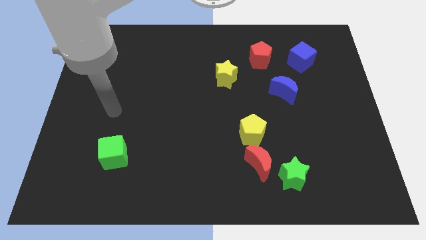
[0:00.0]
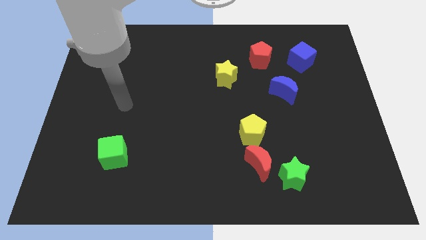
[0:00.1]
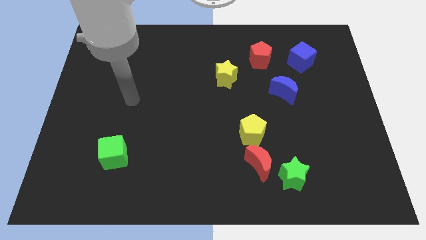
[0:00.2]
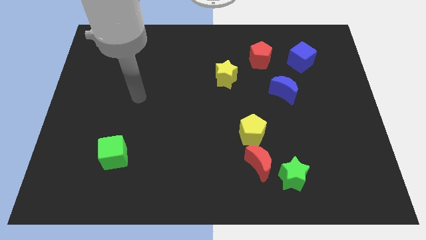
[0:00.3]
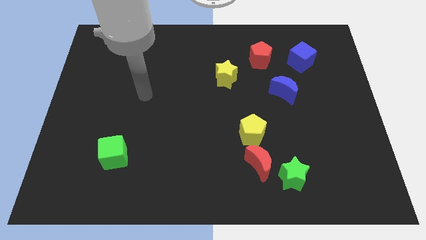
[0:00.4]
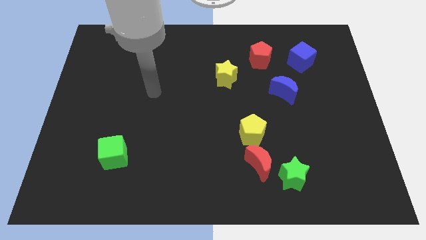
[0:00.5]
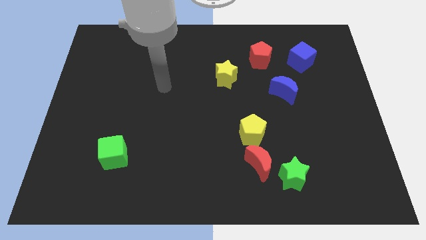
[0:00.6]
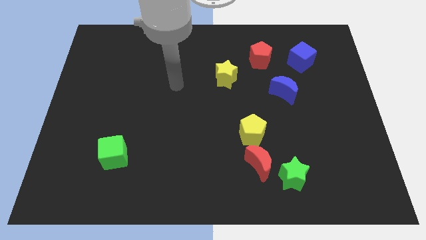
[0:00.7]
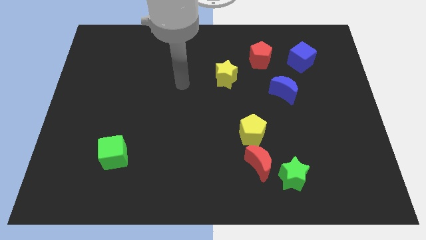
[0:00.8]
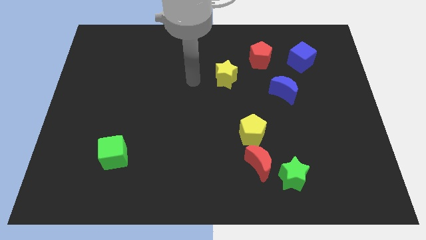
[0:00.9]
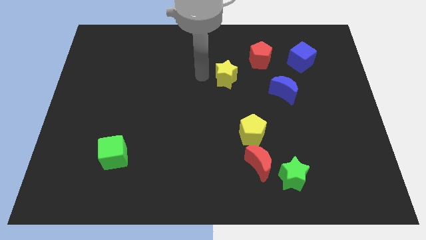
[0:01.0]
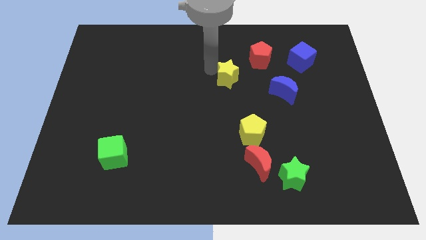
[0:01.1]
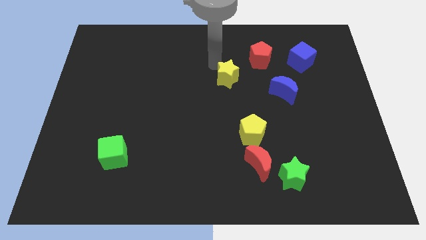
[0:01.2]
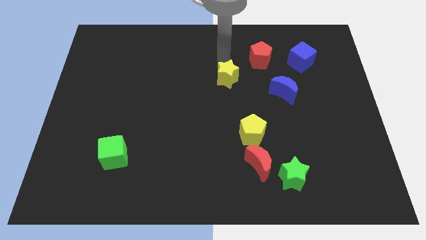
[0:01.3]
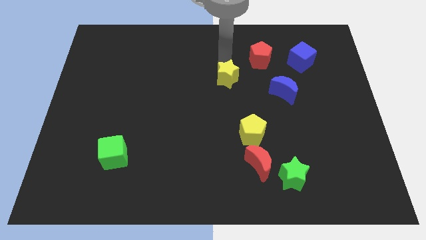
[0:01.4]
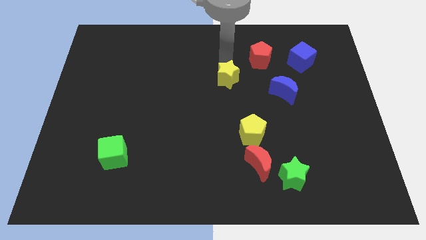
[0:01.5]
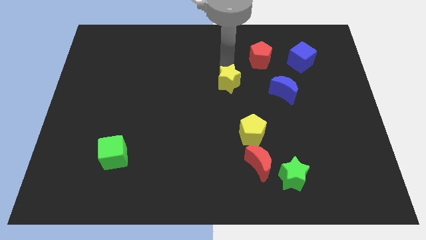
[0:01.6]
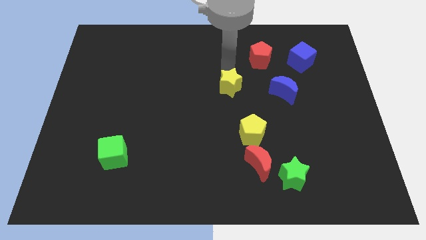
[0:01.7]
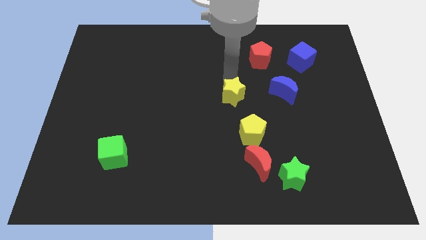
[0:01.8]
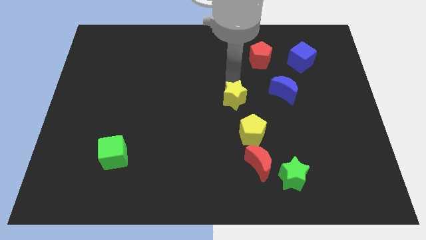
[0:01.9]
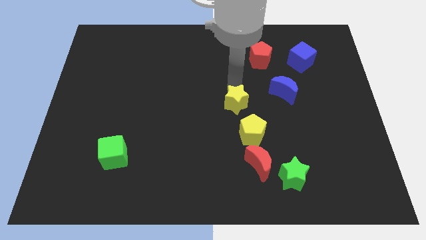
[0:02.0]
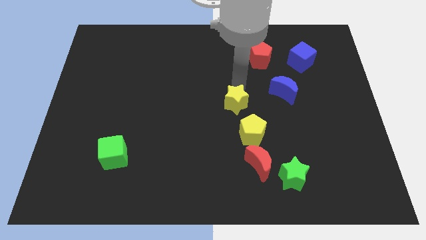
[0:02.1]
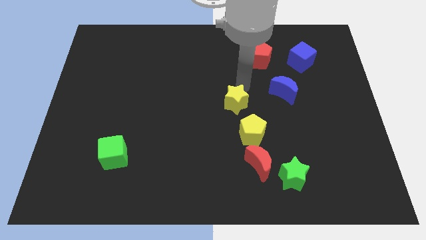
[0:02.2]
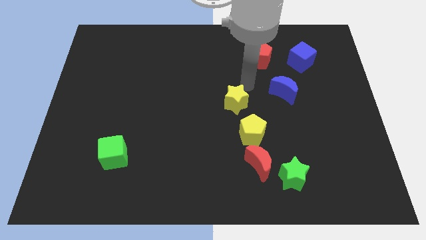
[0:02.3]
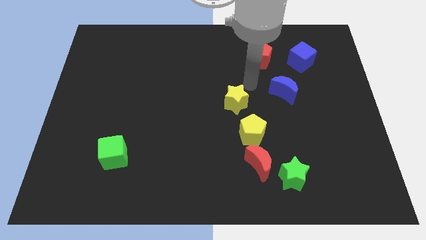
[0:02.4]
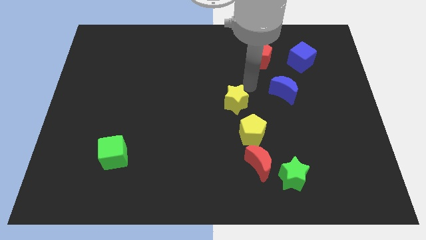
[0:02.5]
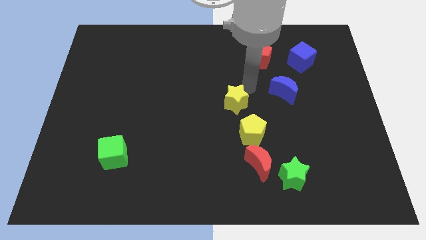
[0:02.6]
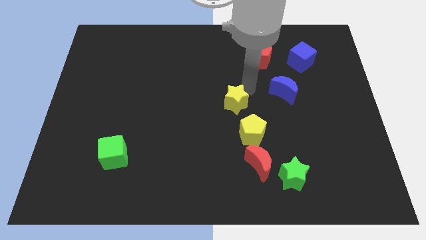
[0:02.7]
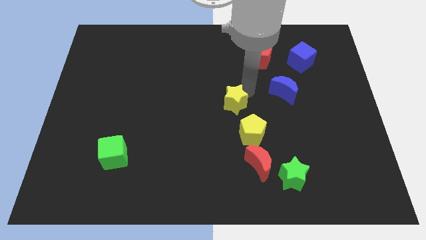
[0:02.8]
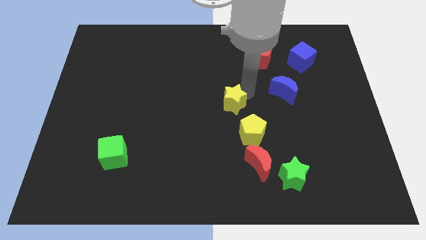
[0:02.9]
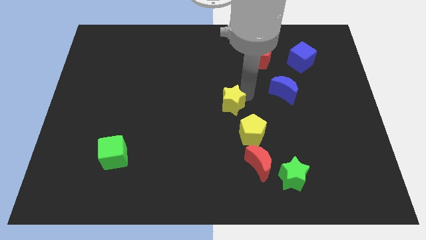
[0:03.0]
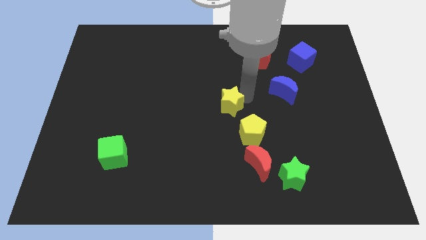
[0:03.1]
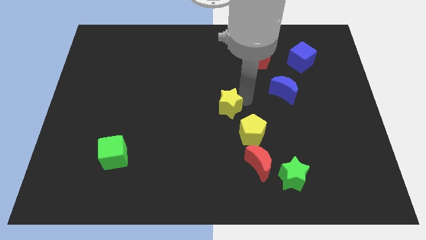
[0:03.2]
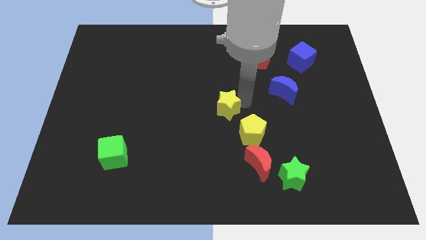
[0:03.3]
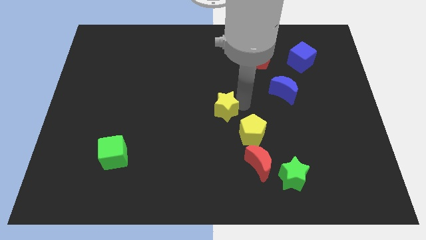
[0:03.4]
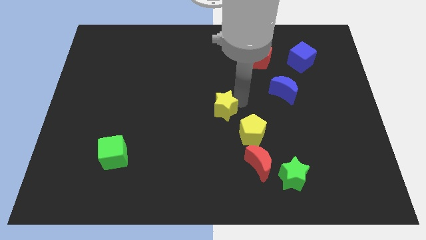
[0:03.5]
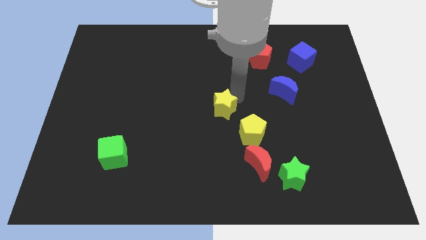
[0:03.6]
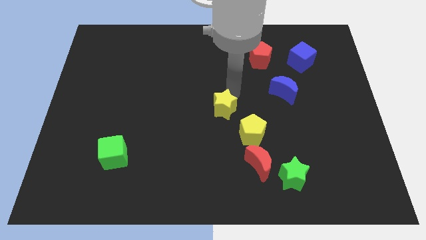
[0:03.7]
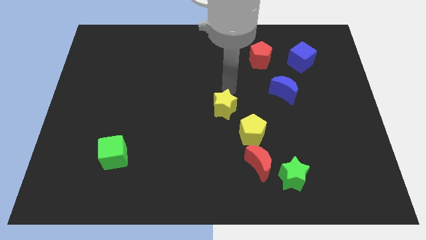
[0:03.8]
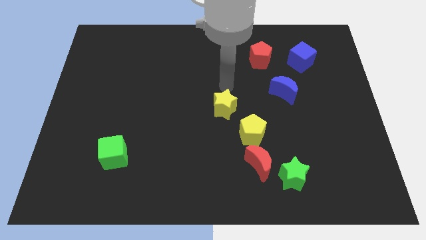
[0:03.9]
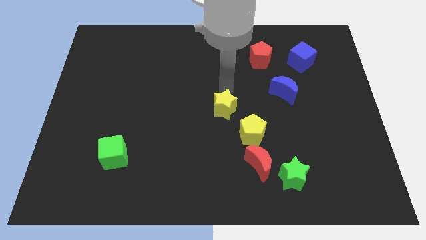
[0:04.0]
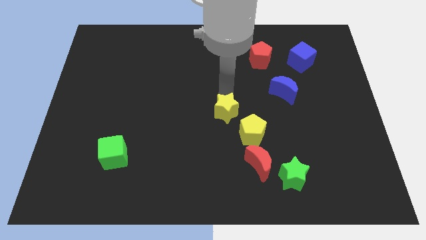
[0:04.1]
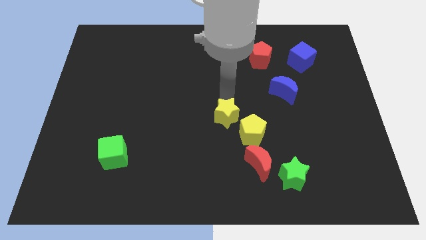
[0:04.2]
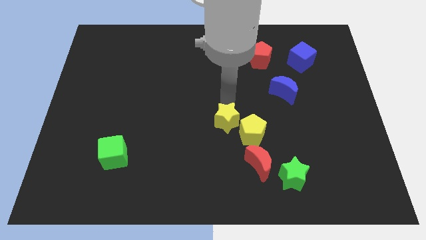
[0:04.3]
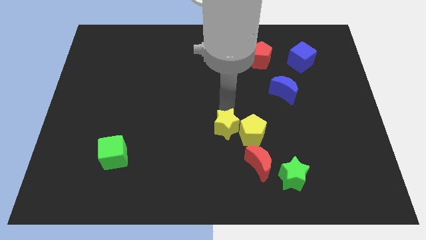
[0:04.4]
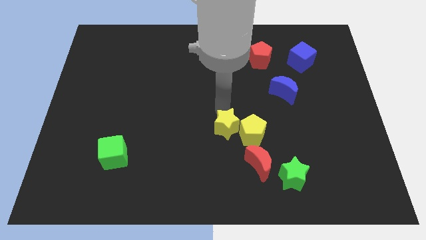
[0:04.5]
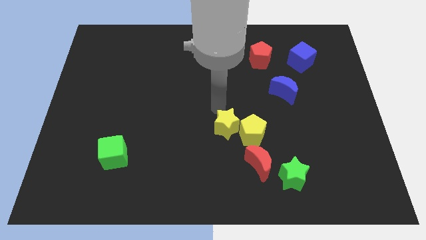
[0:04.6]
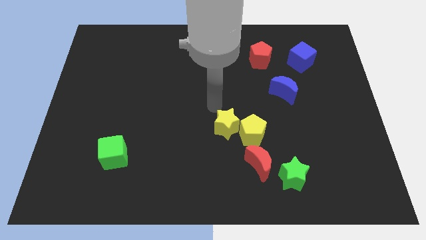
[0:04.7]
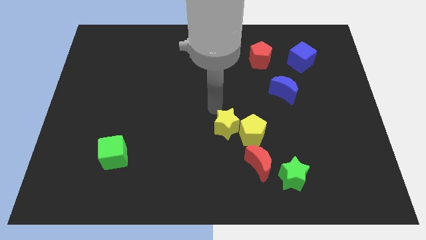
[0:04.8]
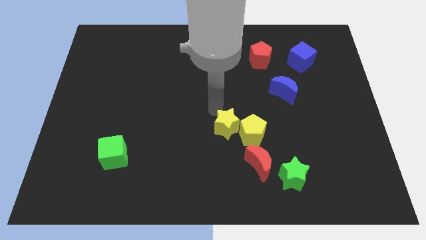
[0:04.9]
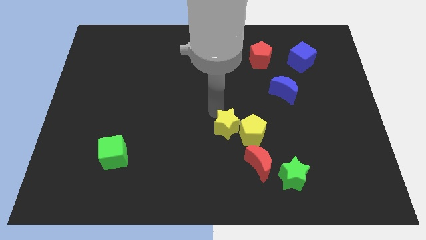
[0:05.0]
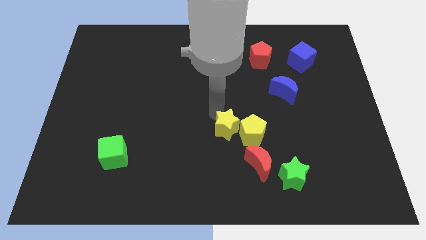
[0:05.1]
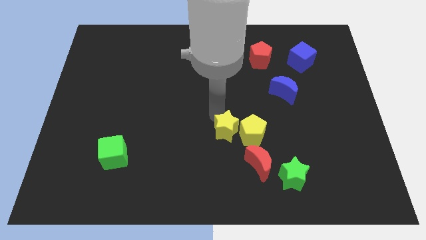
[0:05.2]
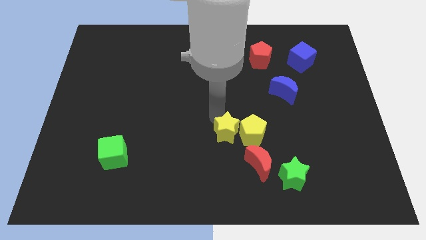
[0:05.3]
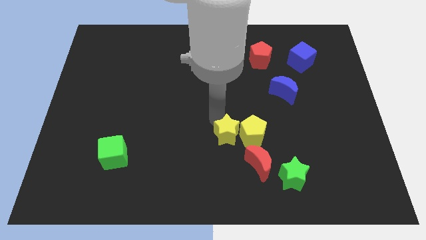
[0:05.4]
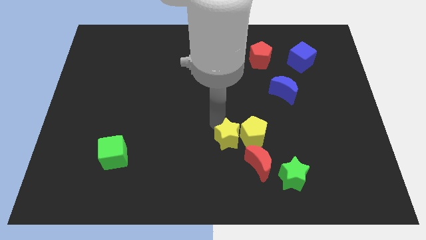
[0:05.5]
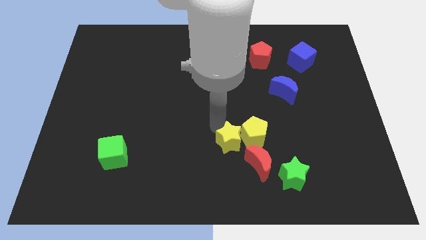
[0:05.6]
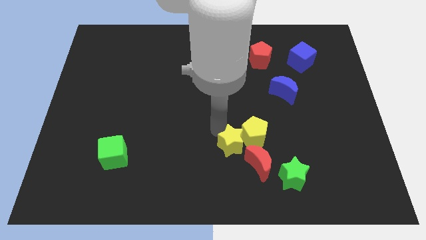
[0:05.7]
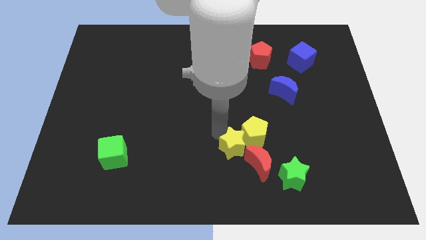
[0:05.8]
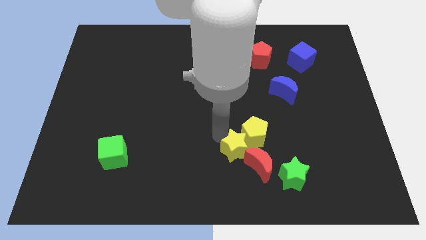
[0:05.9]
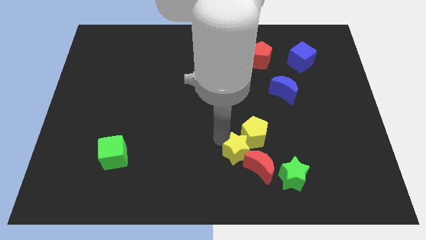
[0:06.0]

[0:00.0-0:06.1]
slide the yellow star close to the red moon

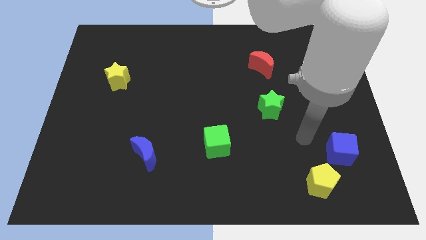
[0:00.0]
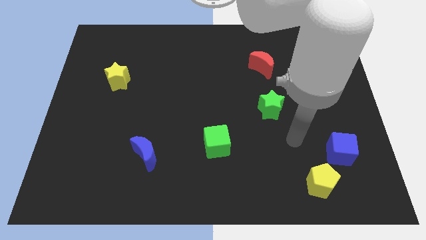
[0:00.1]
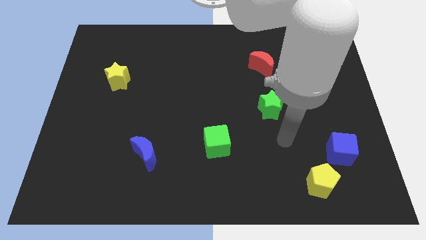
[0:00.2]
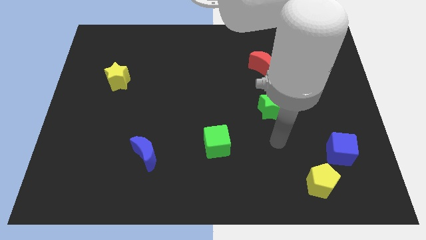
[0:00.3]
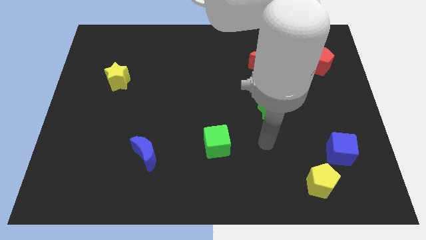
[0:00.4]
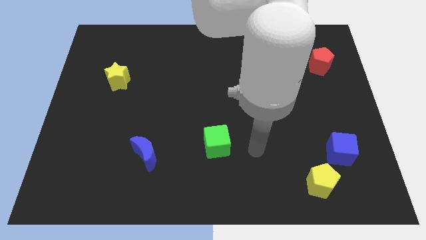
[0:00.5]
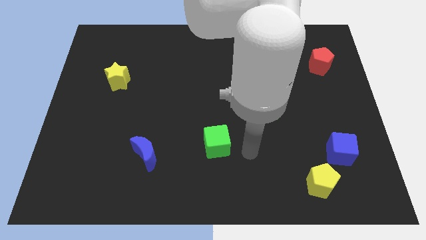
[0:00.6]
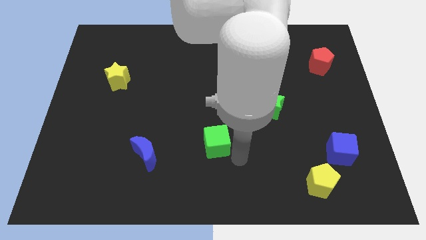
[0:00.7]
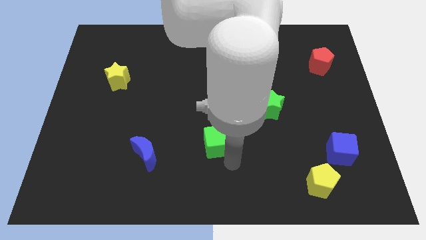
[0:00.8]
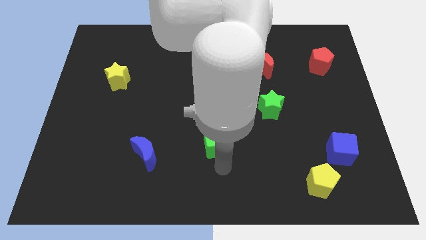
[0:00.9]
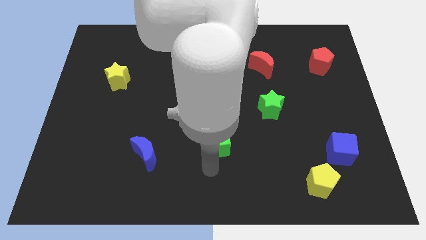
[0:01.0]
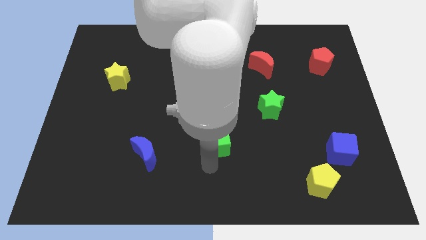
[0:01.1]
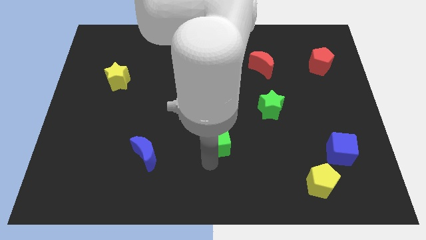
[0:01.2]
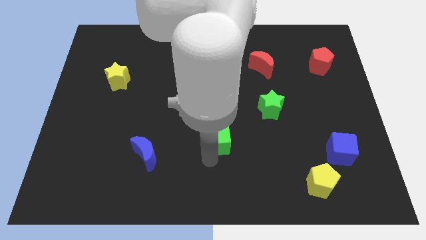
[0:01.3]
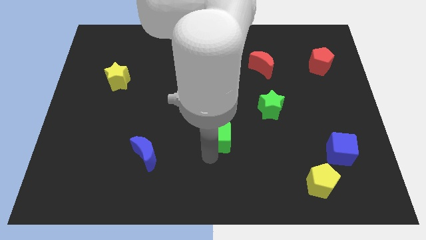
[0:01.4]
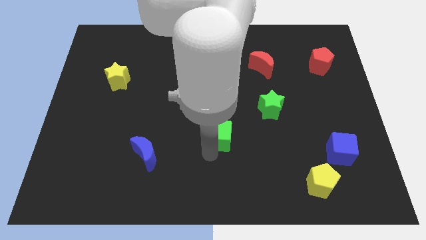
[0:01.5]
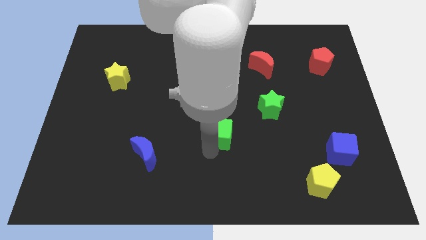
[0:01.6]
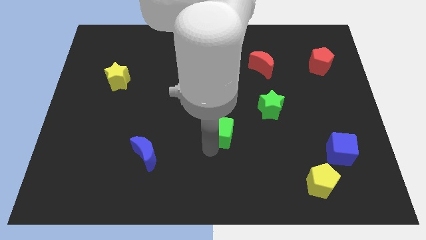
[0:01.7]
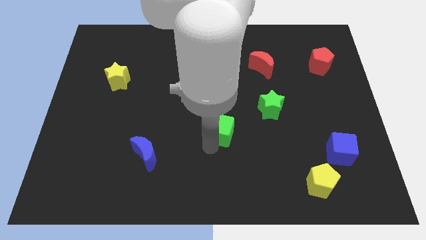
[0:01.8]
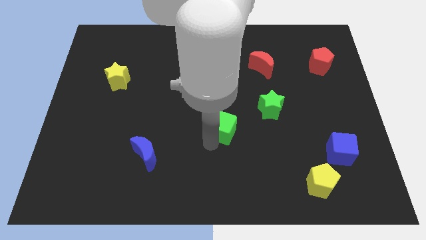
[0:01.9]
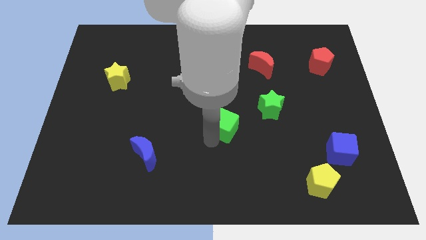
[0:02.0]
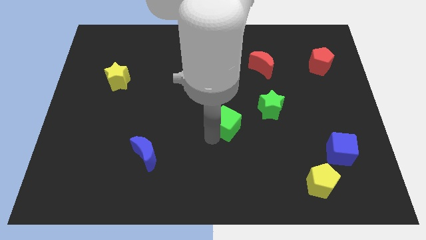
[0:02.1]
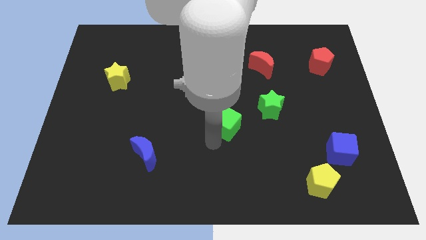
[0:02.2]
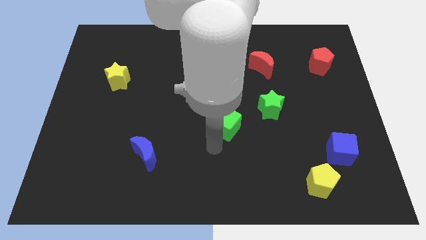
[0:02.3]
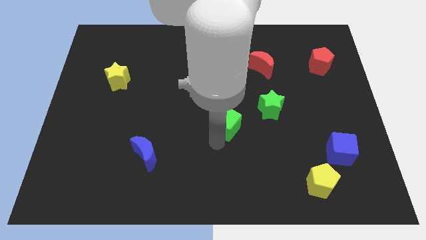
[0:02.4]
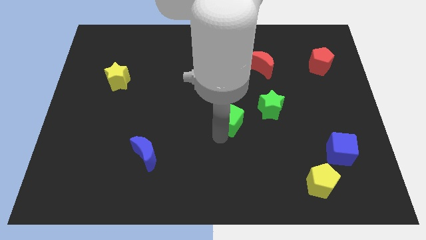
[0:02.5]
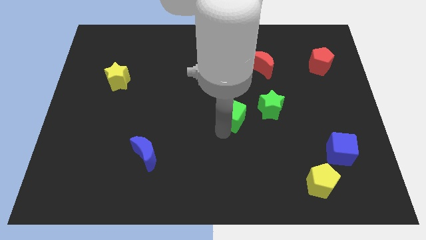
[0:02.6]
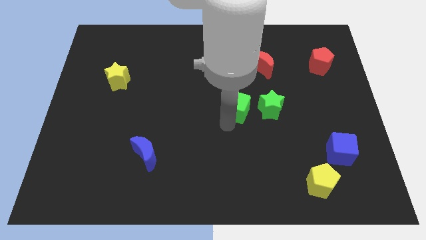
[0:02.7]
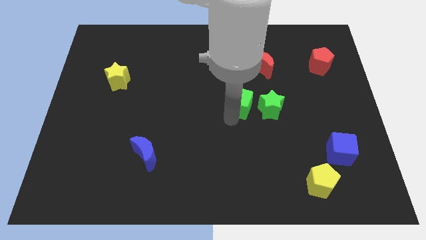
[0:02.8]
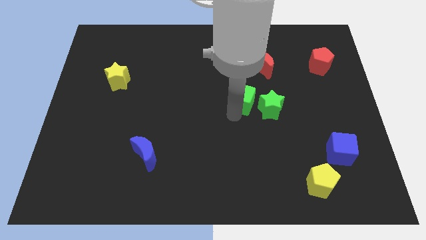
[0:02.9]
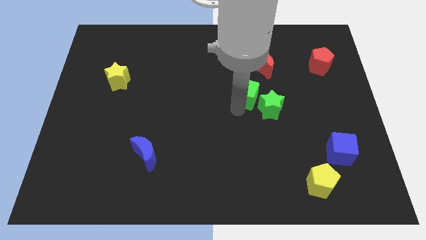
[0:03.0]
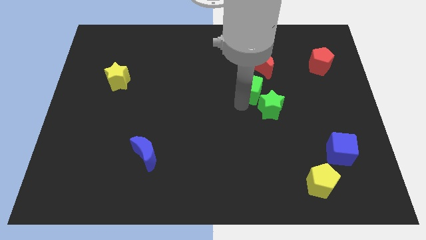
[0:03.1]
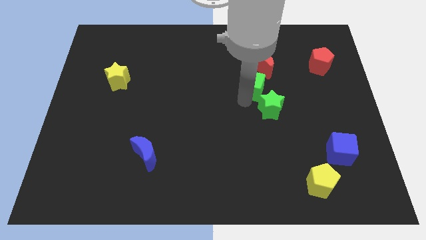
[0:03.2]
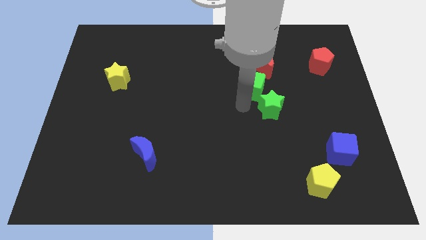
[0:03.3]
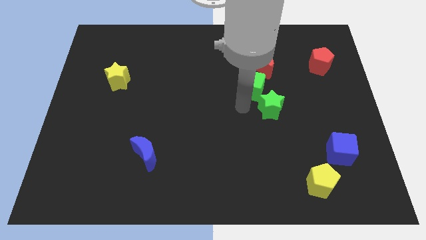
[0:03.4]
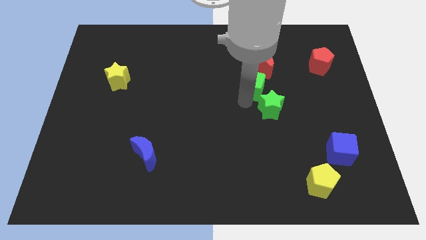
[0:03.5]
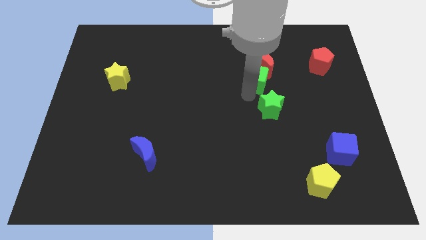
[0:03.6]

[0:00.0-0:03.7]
push the green cube towards the red moon
